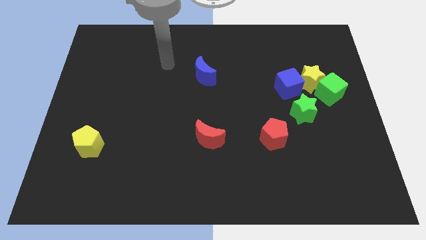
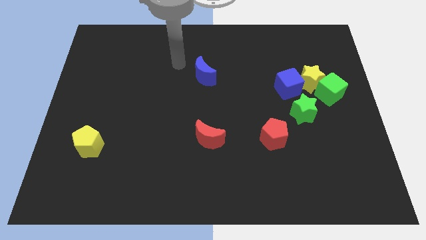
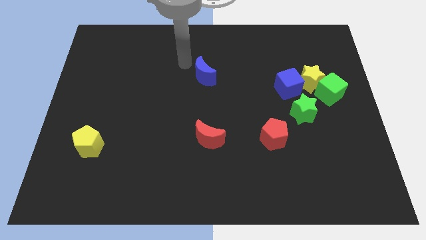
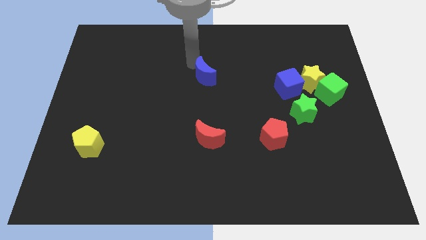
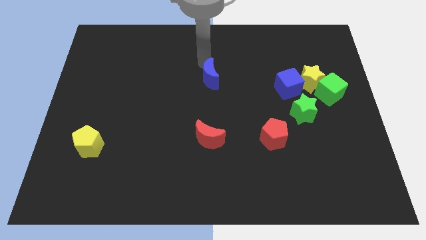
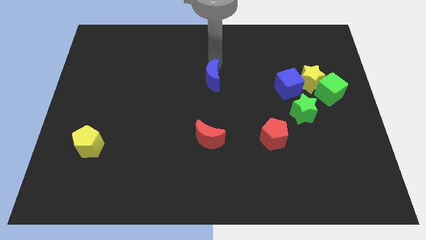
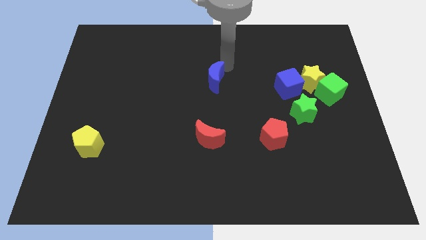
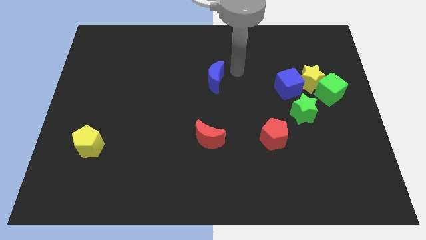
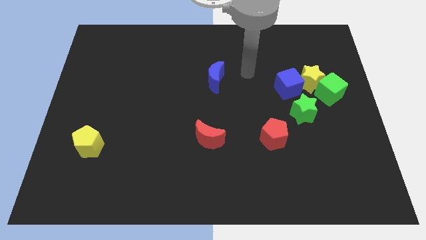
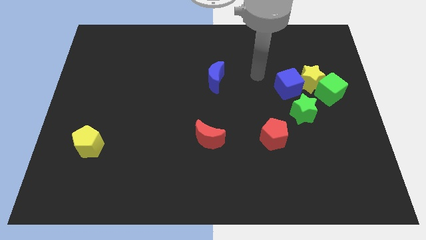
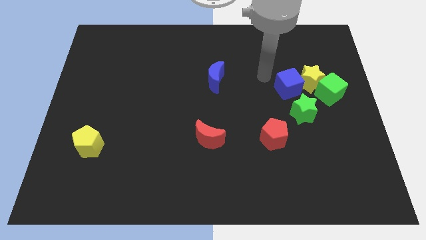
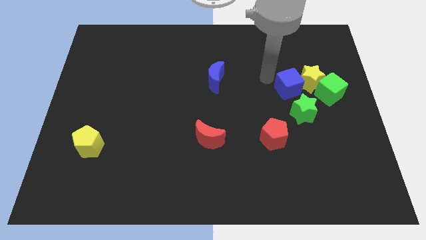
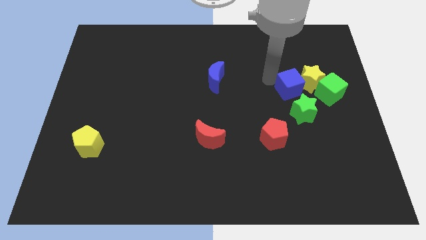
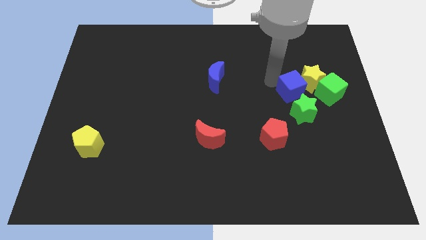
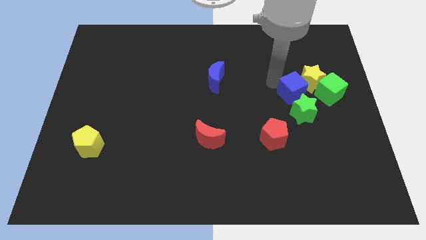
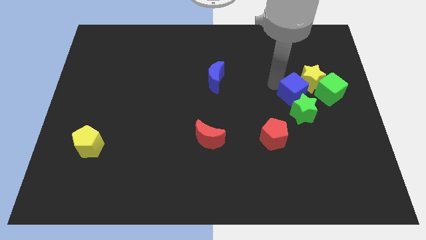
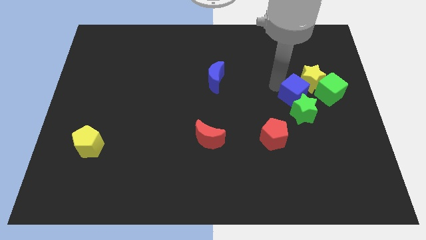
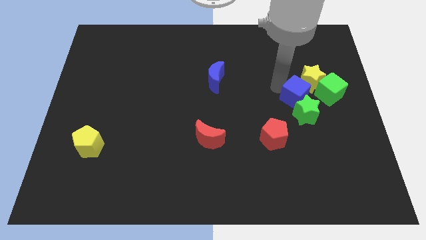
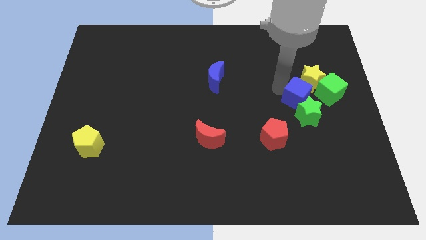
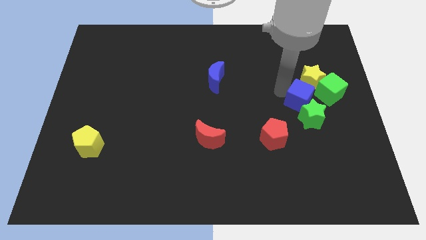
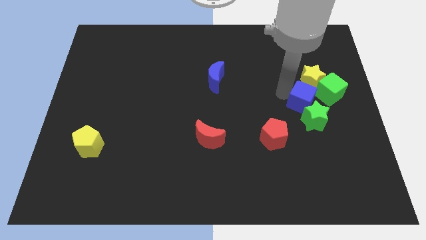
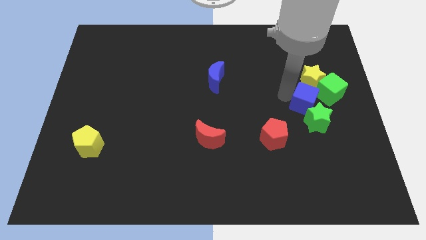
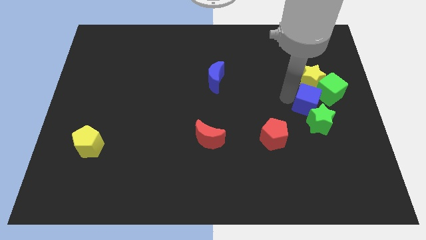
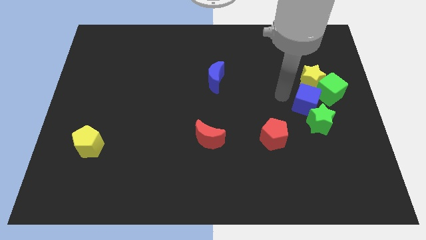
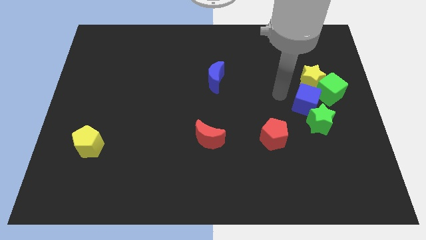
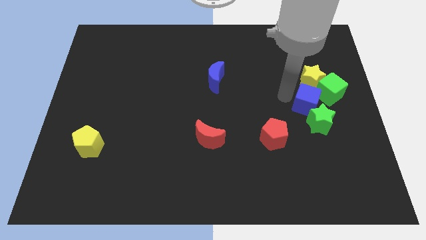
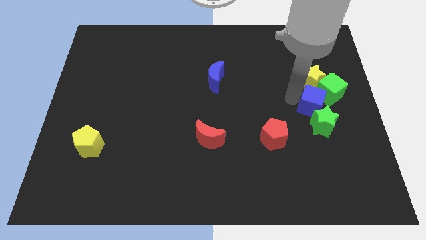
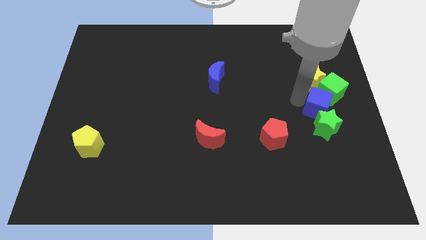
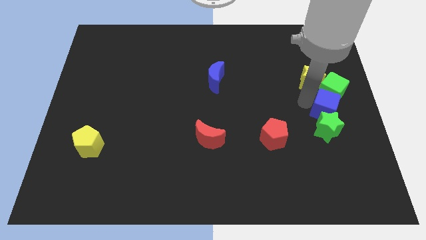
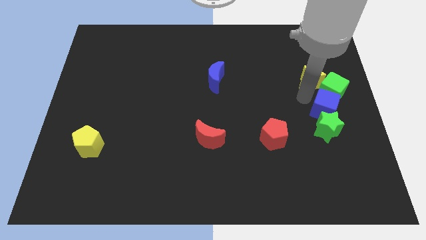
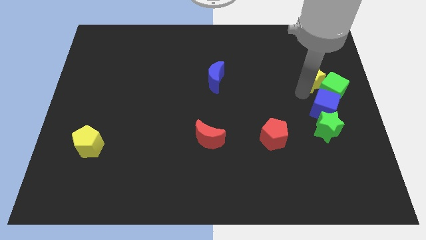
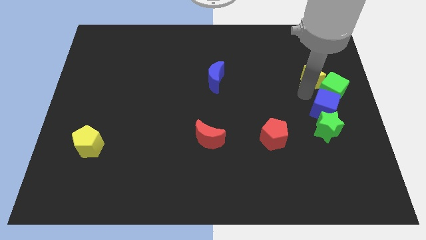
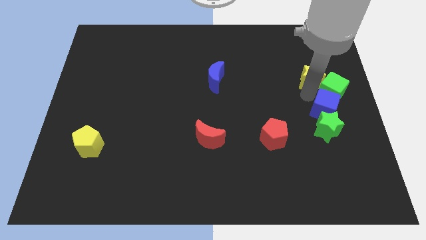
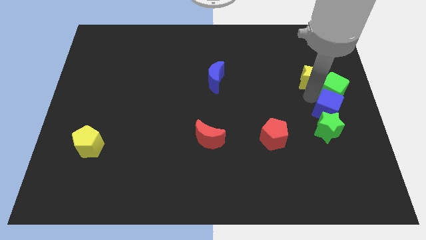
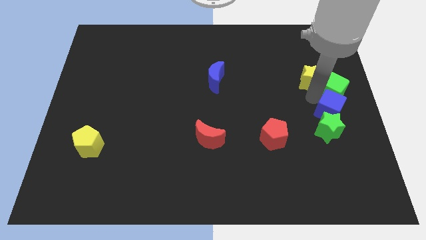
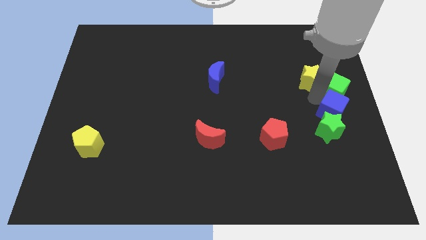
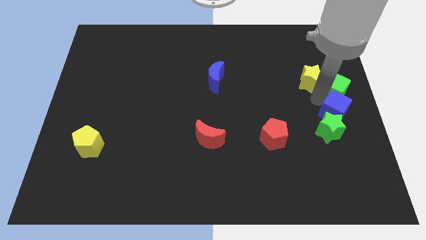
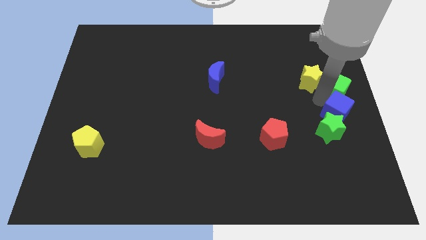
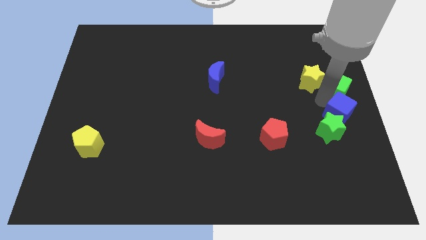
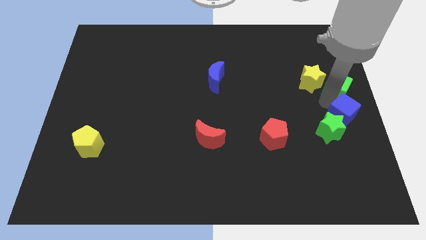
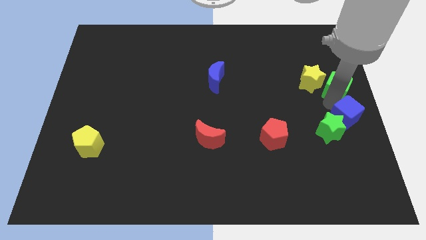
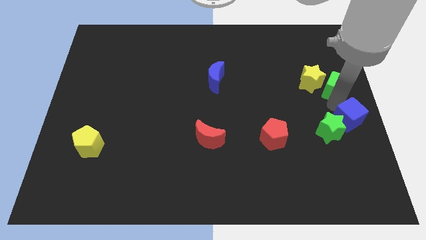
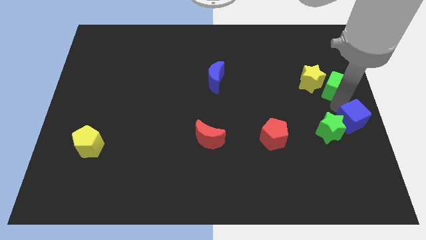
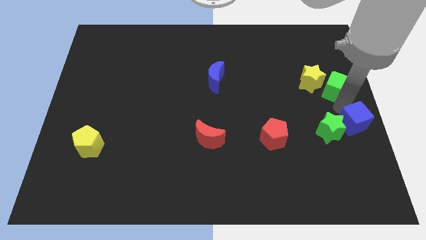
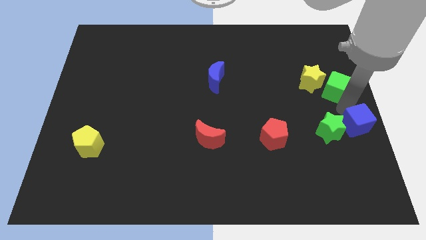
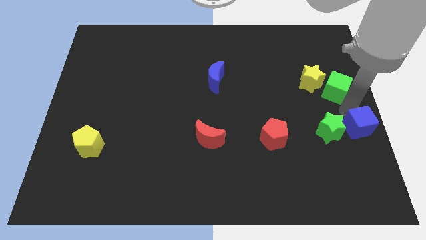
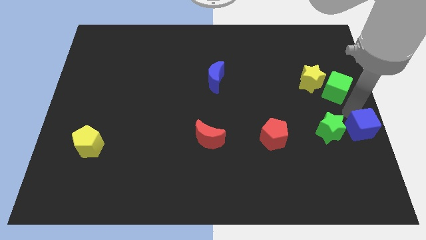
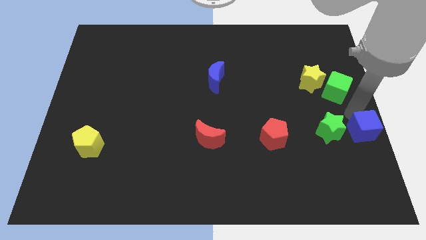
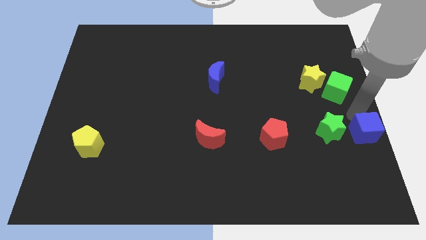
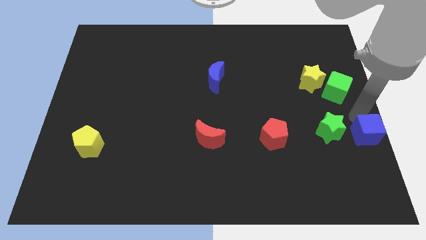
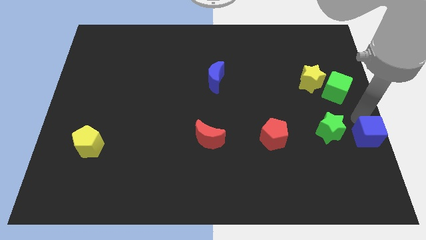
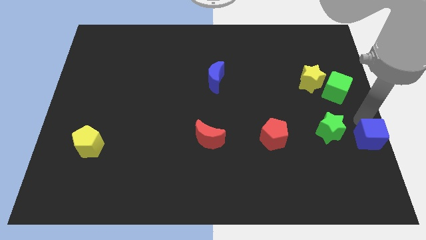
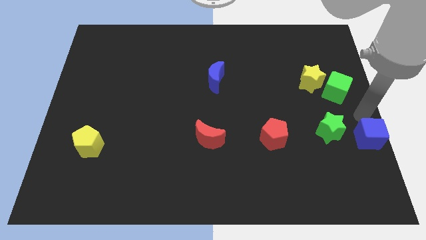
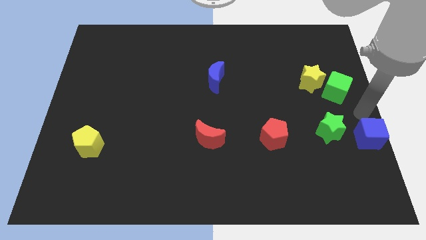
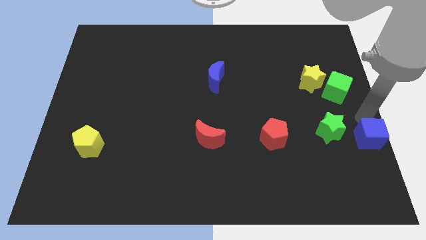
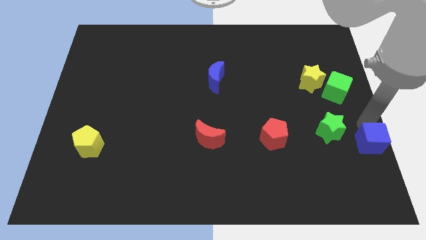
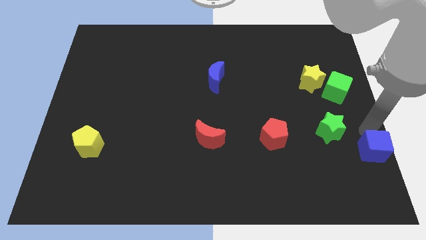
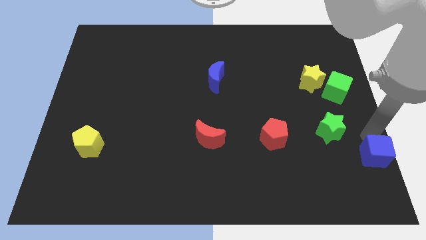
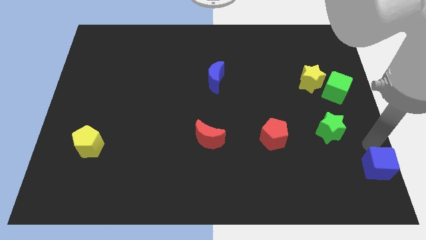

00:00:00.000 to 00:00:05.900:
move the blue cube to the bottom right corner

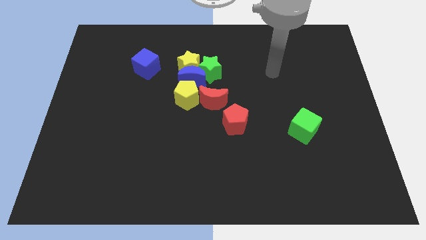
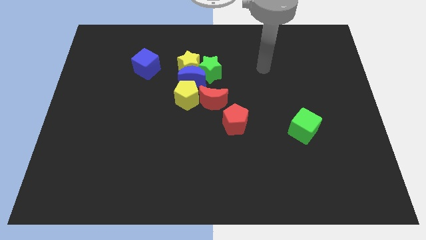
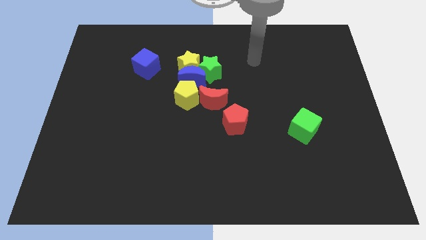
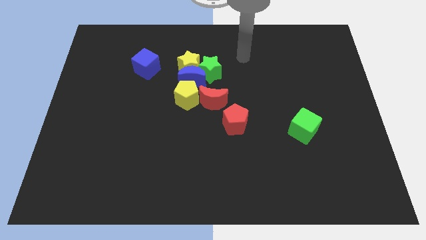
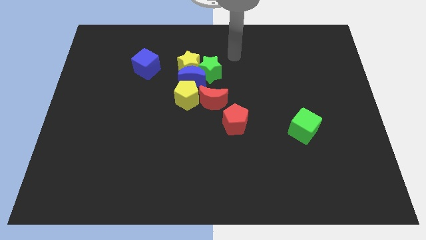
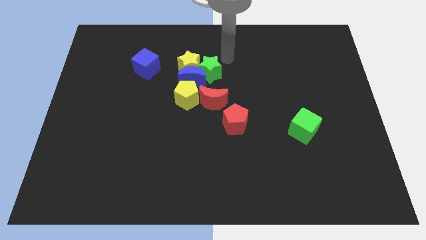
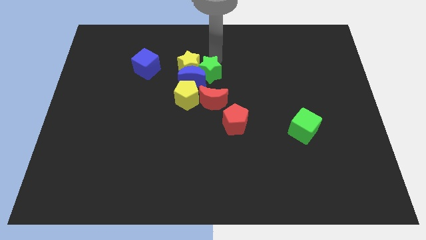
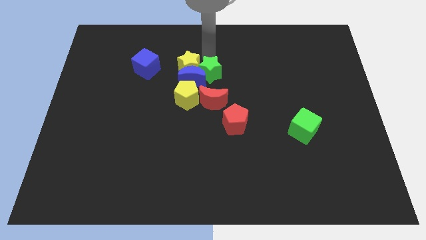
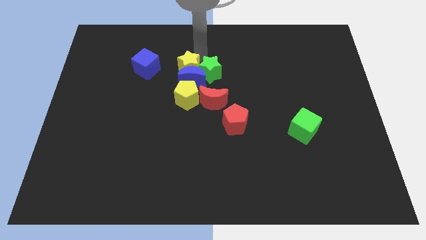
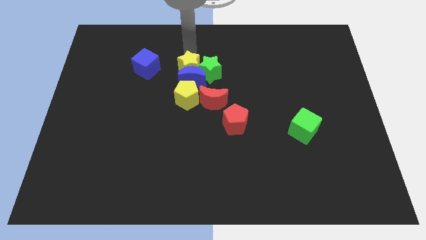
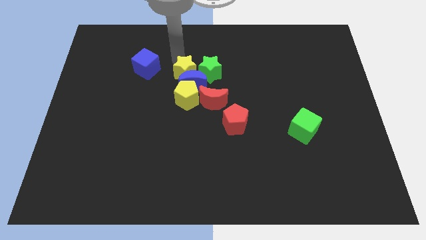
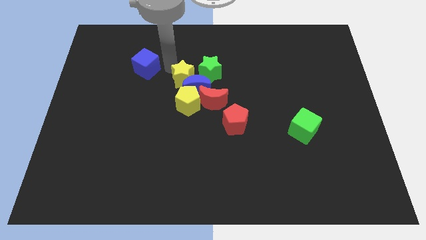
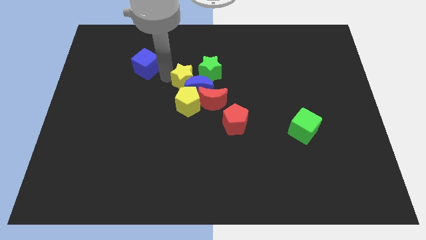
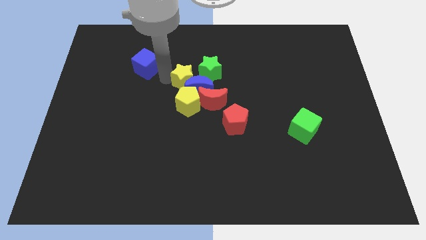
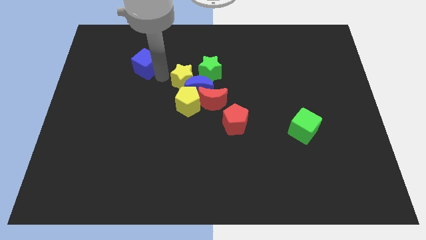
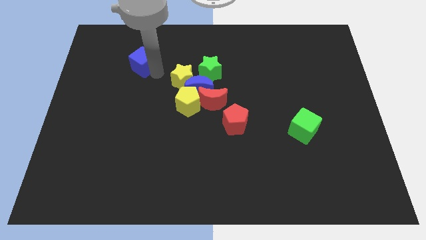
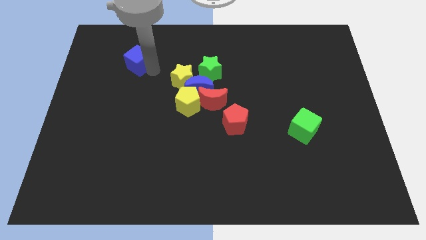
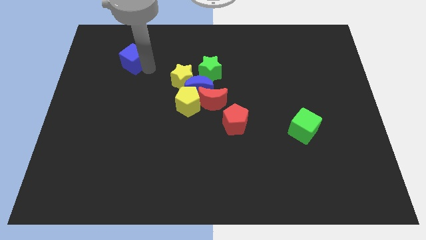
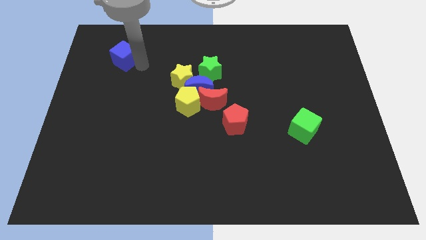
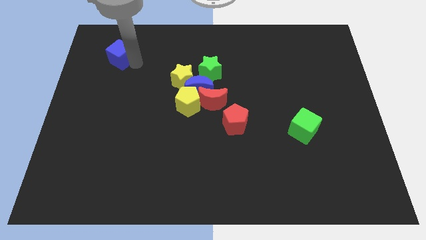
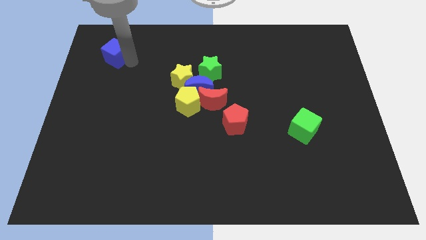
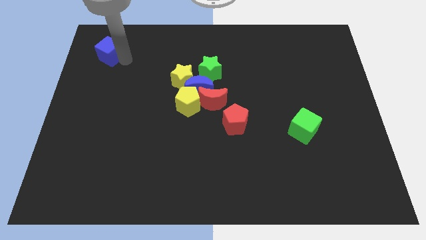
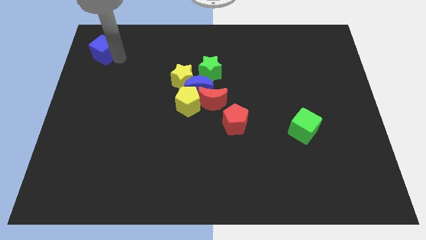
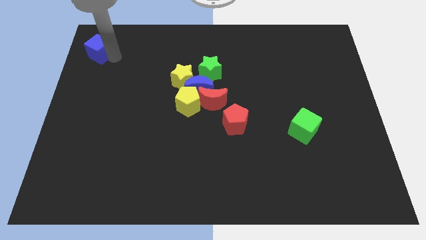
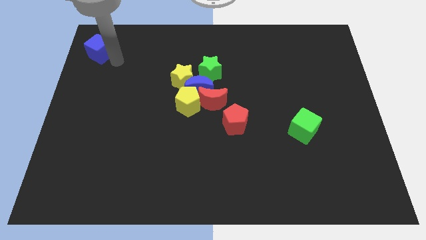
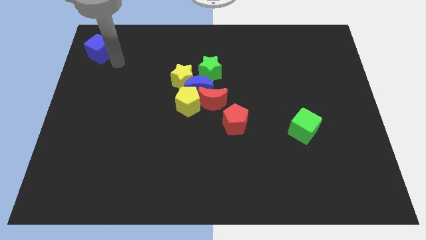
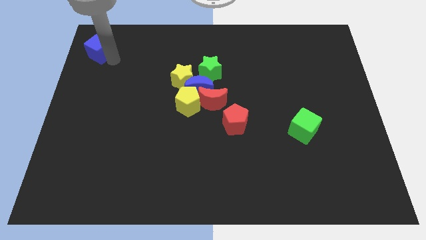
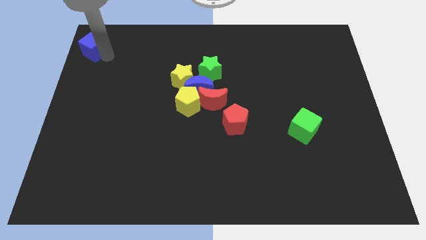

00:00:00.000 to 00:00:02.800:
slide the blue cube to the top left of the board
